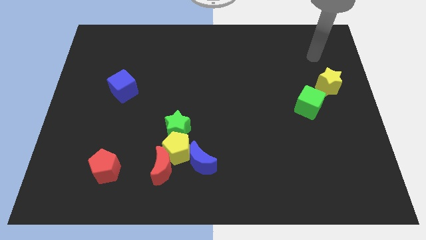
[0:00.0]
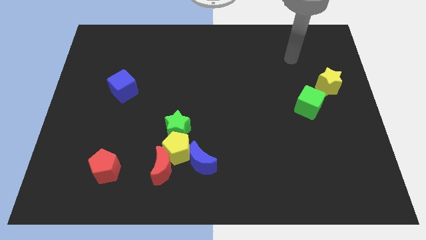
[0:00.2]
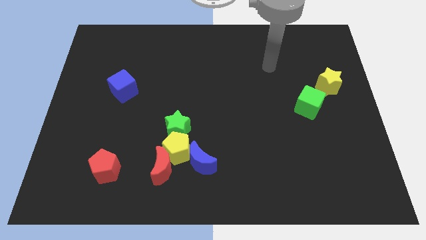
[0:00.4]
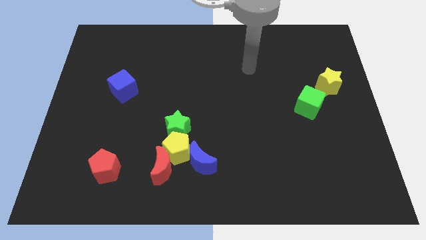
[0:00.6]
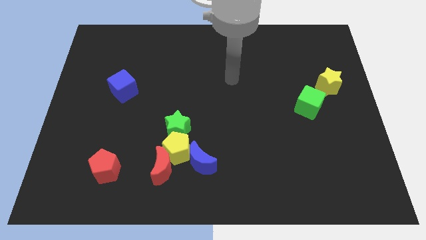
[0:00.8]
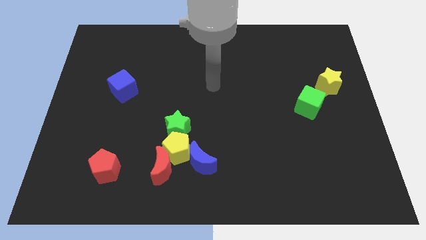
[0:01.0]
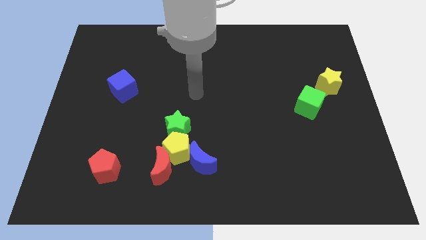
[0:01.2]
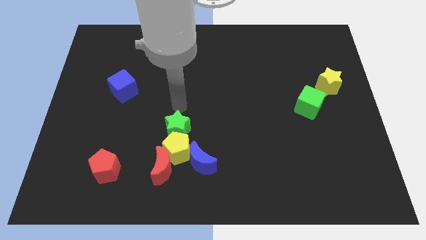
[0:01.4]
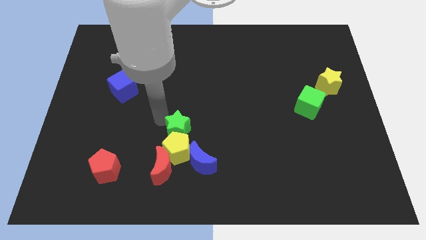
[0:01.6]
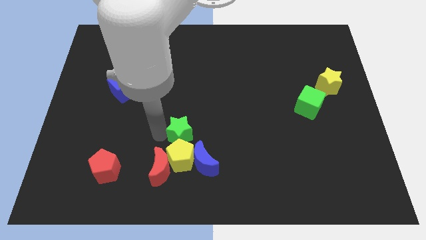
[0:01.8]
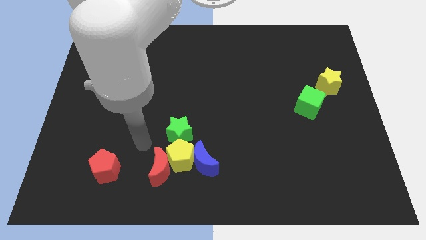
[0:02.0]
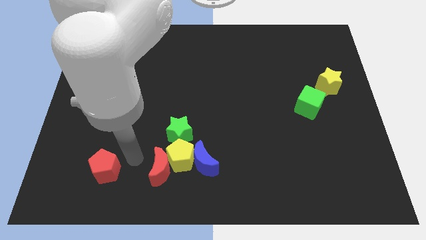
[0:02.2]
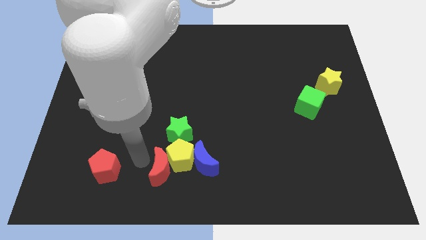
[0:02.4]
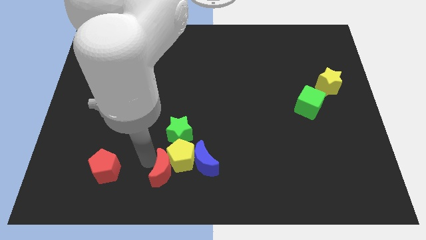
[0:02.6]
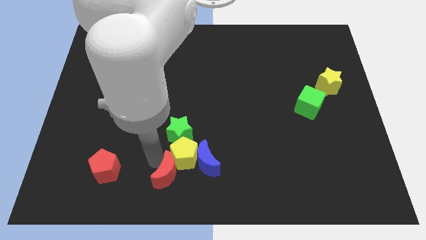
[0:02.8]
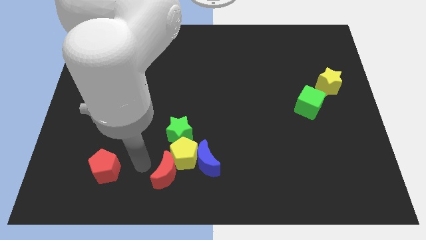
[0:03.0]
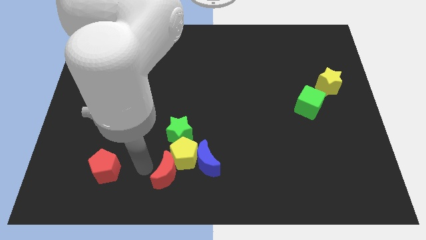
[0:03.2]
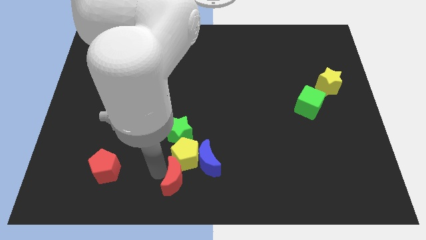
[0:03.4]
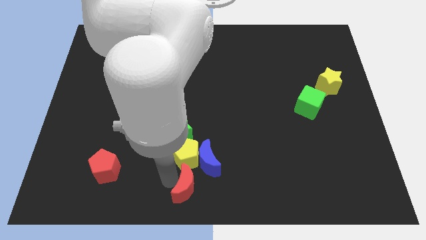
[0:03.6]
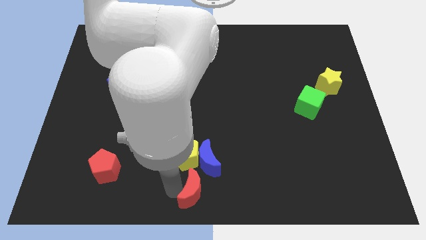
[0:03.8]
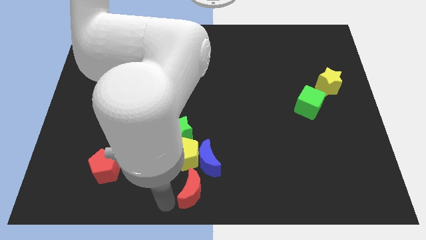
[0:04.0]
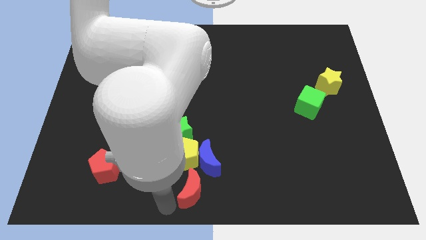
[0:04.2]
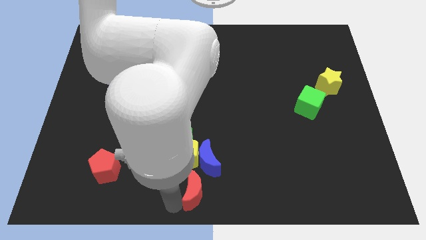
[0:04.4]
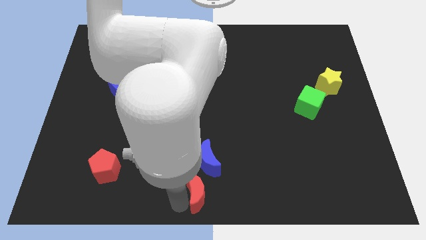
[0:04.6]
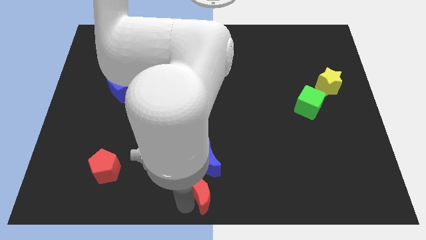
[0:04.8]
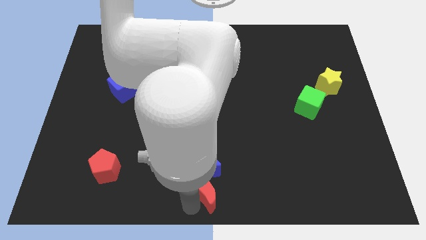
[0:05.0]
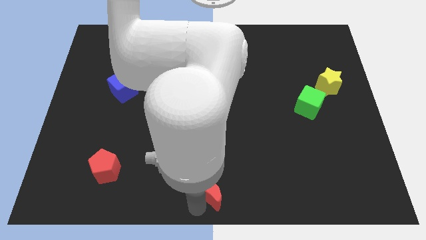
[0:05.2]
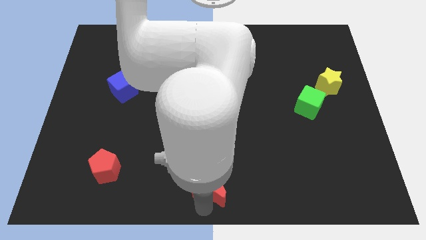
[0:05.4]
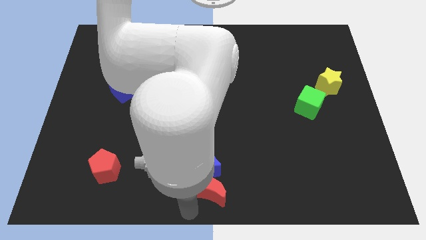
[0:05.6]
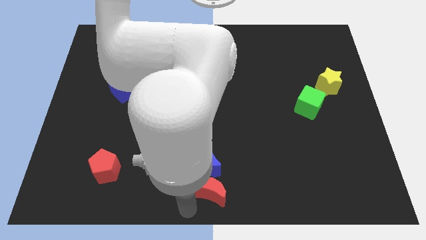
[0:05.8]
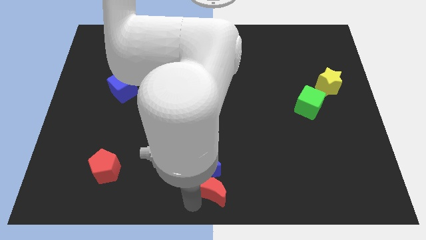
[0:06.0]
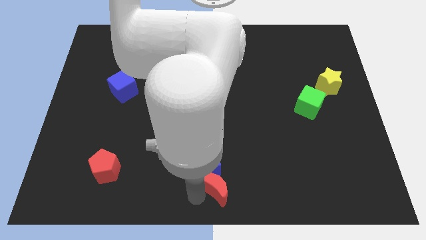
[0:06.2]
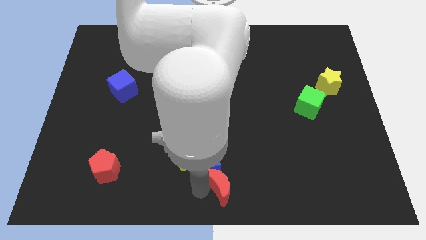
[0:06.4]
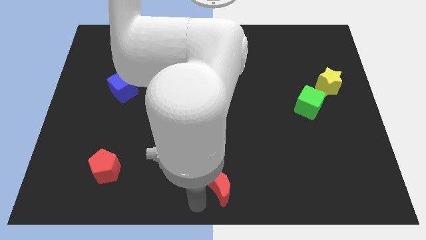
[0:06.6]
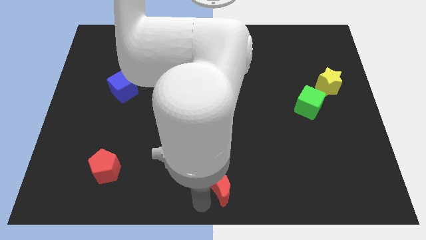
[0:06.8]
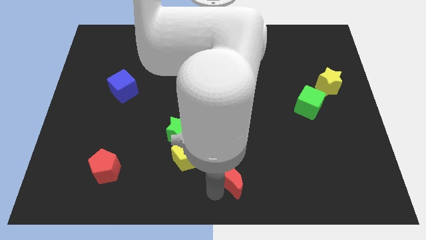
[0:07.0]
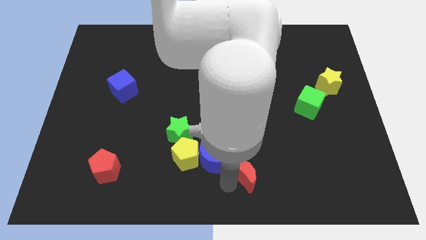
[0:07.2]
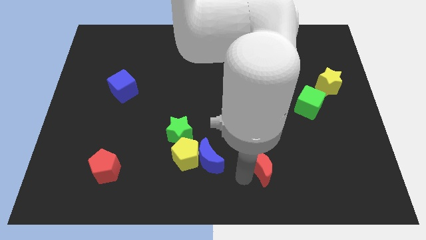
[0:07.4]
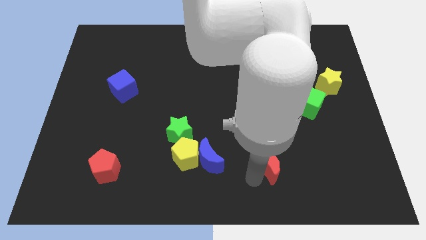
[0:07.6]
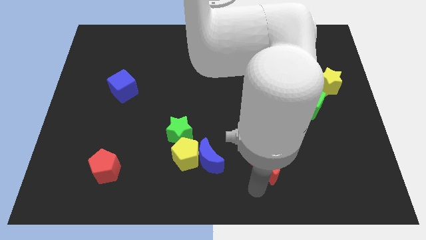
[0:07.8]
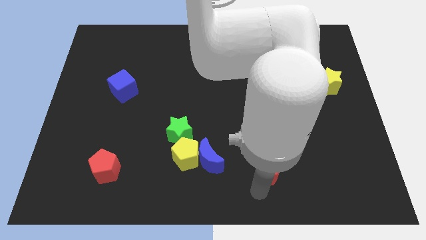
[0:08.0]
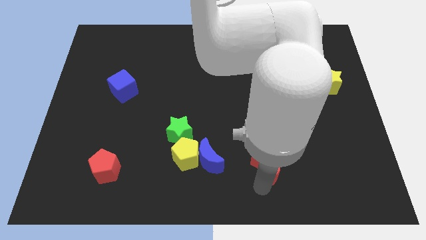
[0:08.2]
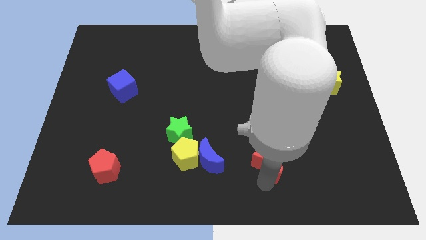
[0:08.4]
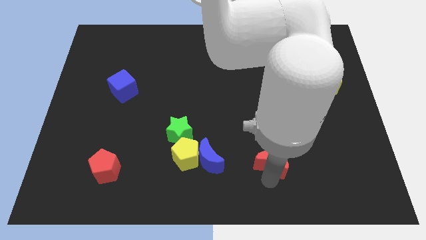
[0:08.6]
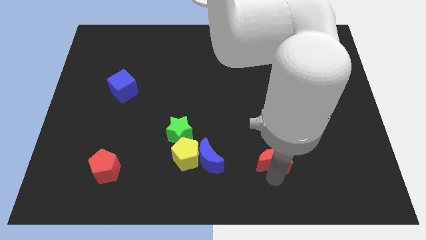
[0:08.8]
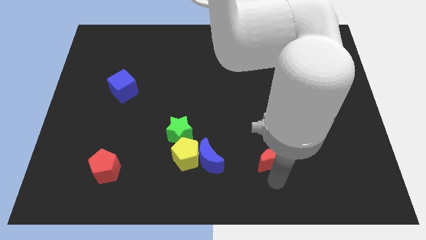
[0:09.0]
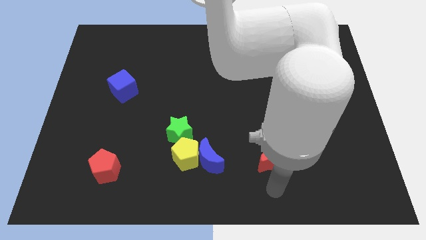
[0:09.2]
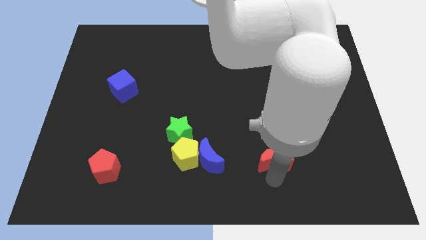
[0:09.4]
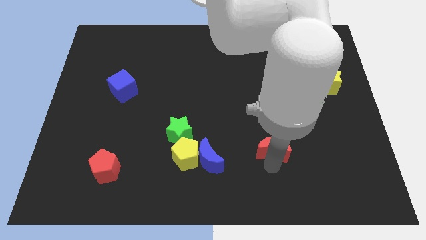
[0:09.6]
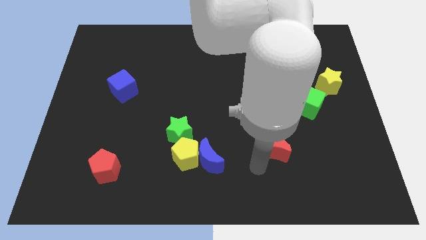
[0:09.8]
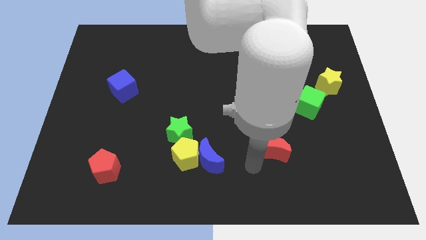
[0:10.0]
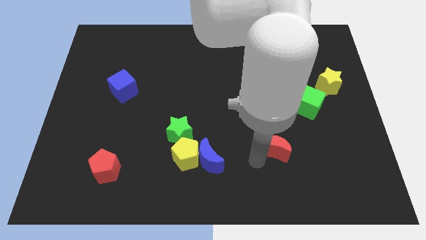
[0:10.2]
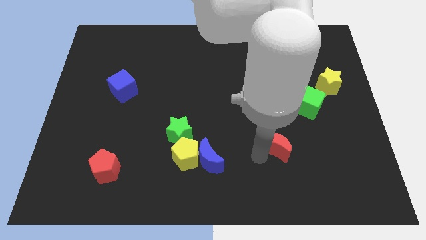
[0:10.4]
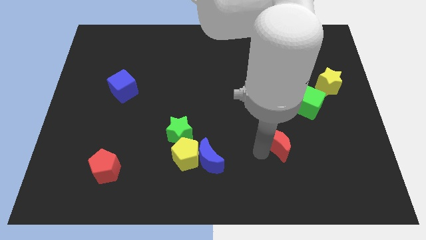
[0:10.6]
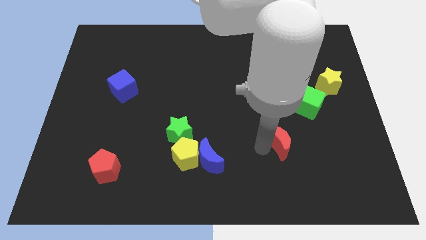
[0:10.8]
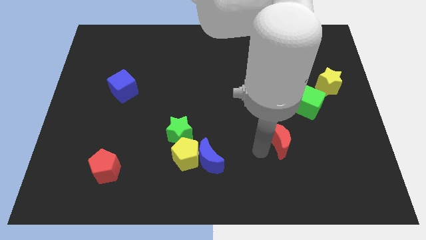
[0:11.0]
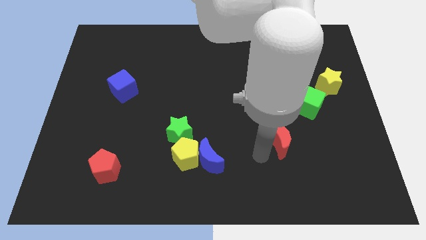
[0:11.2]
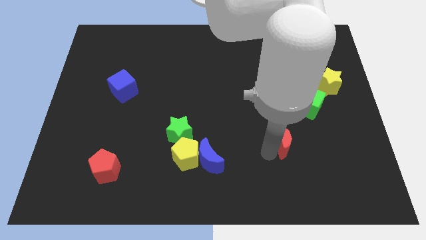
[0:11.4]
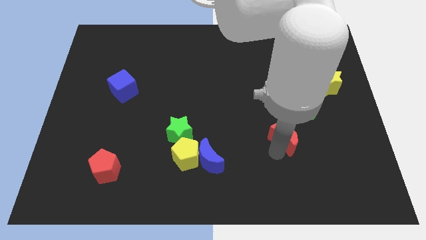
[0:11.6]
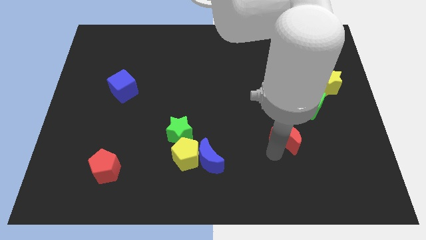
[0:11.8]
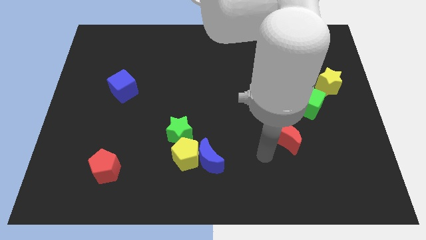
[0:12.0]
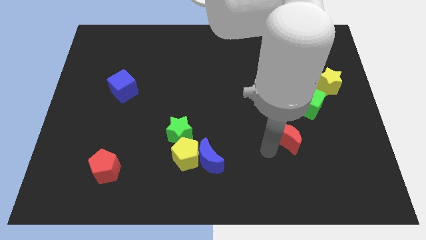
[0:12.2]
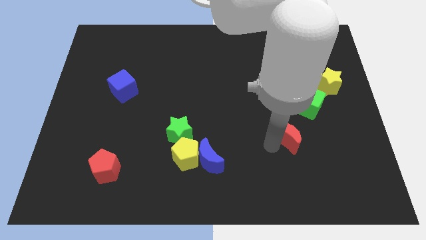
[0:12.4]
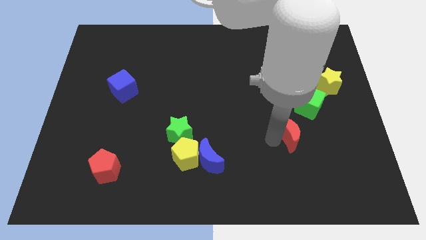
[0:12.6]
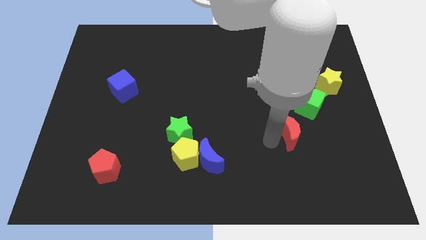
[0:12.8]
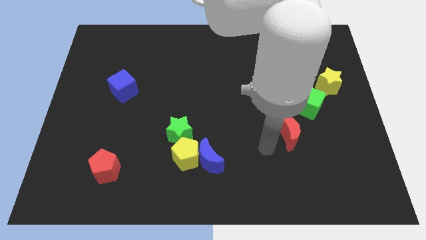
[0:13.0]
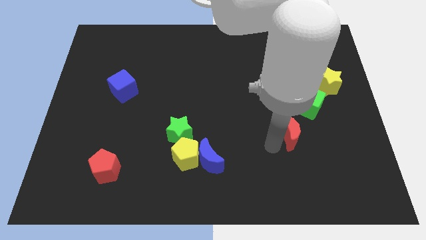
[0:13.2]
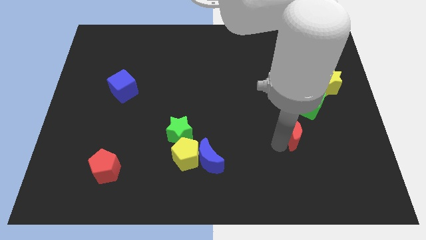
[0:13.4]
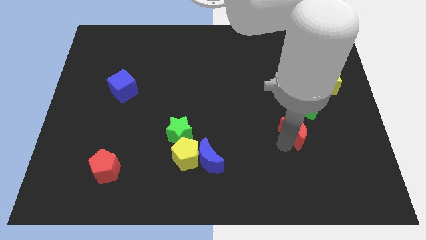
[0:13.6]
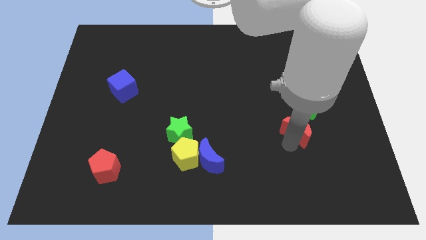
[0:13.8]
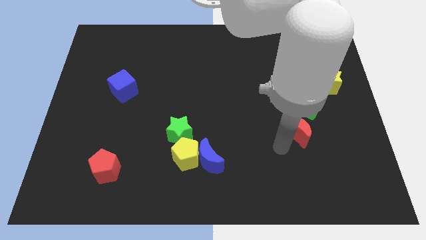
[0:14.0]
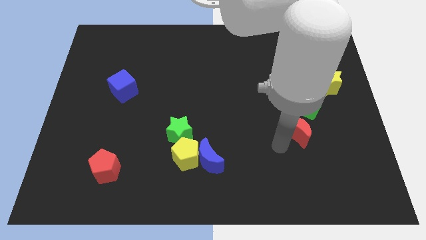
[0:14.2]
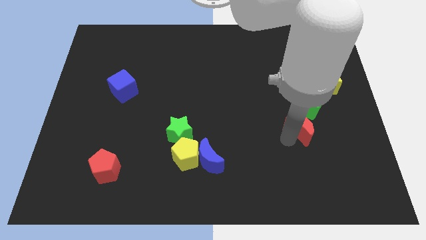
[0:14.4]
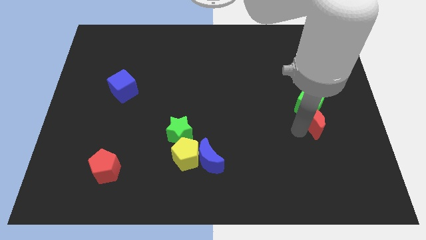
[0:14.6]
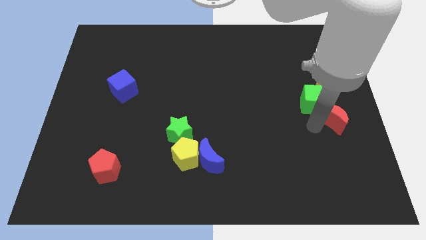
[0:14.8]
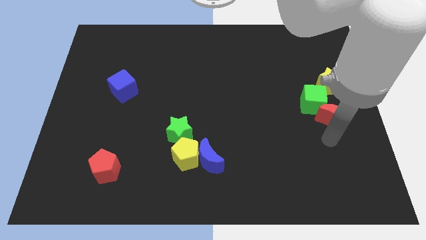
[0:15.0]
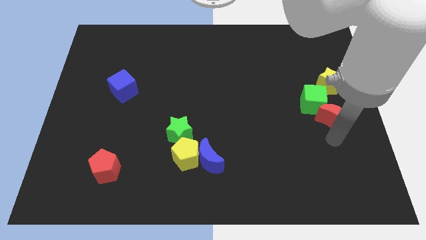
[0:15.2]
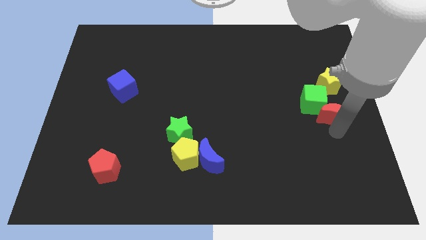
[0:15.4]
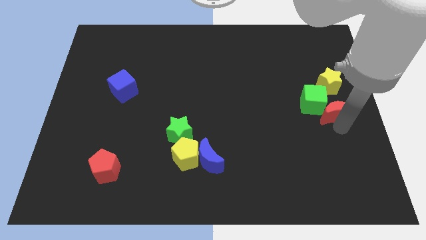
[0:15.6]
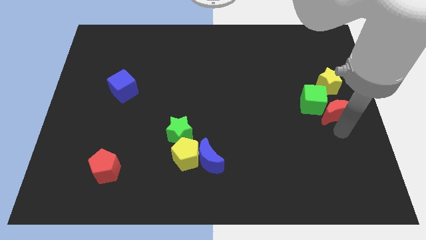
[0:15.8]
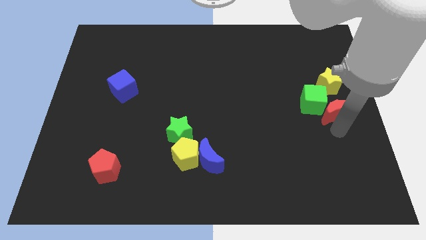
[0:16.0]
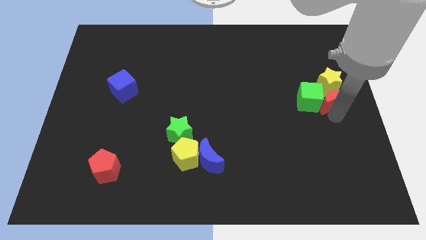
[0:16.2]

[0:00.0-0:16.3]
slide the red moon next to the yellow star
